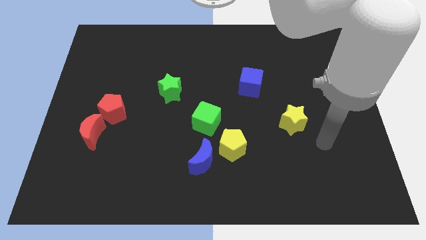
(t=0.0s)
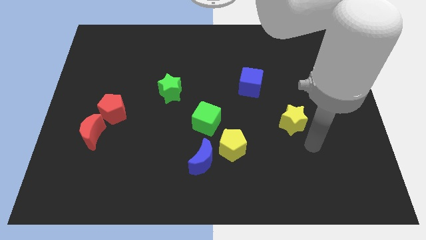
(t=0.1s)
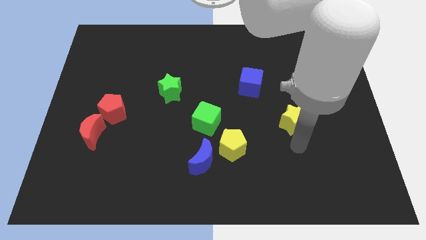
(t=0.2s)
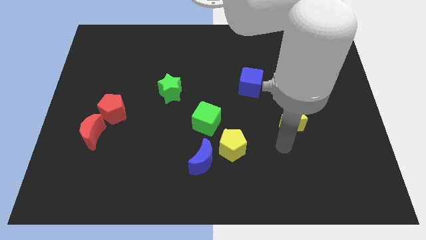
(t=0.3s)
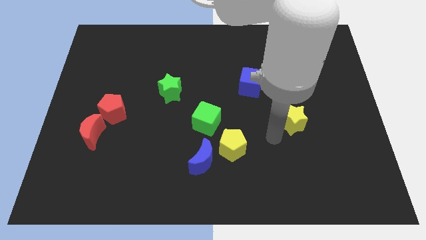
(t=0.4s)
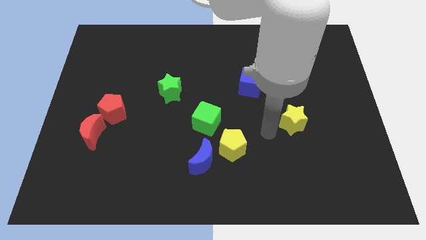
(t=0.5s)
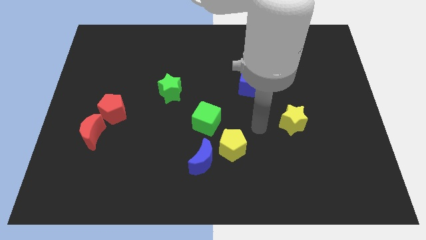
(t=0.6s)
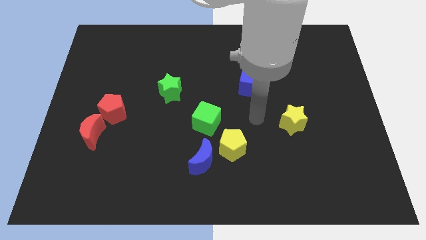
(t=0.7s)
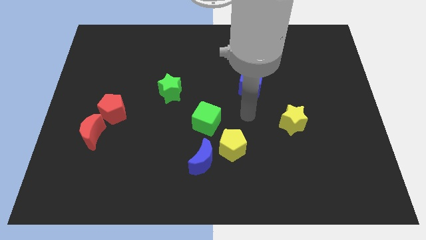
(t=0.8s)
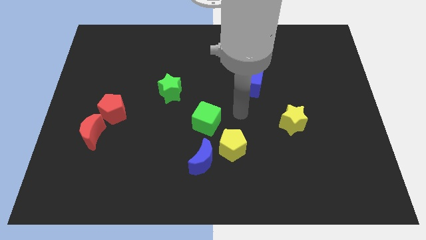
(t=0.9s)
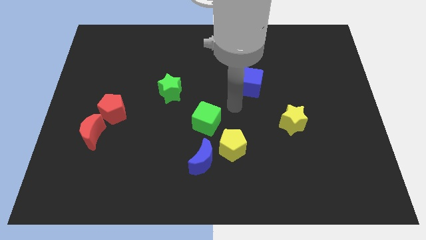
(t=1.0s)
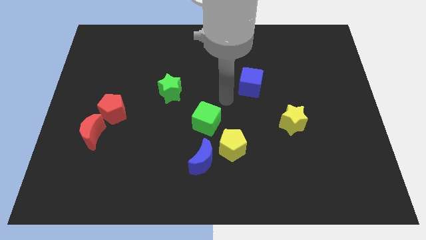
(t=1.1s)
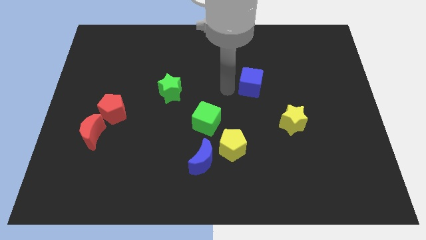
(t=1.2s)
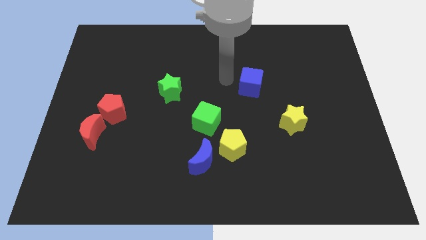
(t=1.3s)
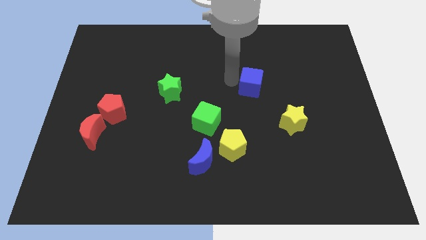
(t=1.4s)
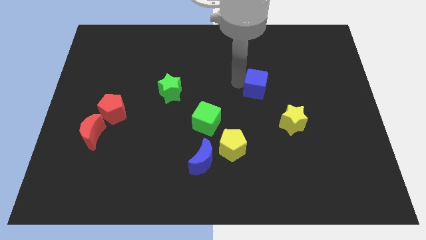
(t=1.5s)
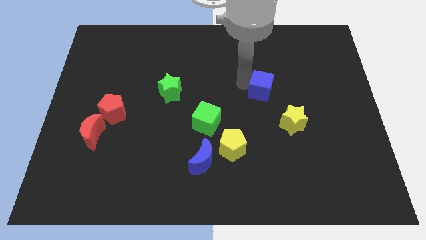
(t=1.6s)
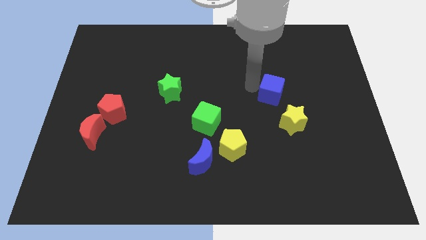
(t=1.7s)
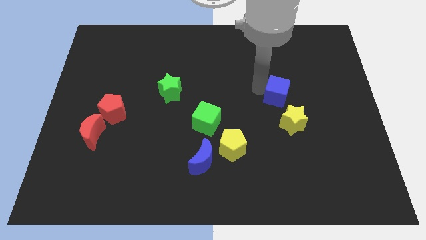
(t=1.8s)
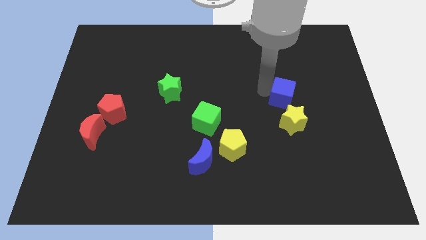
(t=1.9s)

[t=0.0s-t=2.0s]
move the blue cube down and right diagonally a little bit

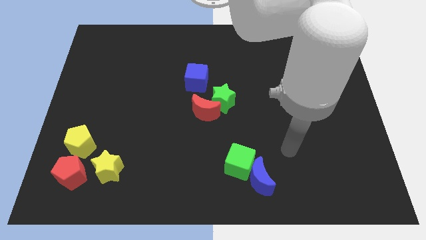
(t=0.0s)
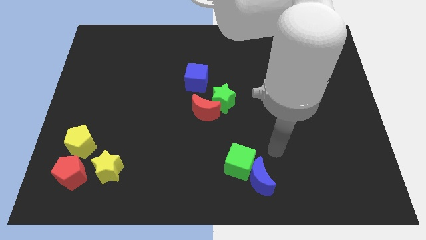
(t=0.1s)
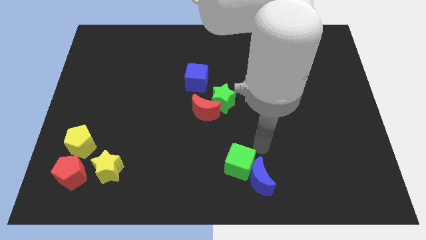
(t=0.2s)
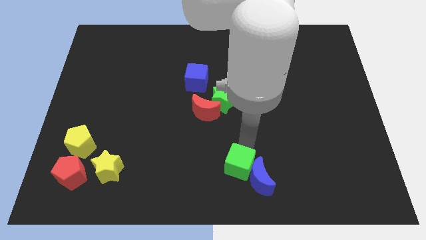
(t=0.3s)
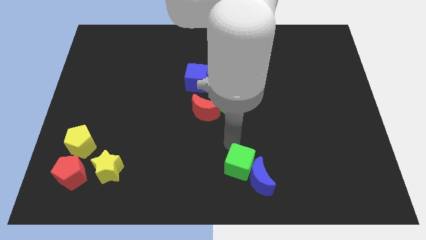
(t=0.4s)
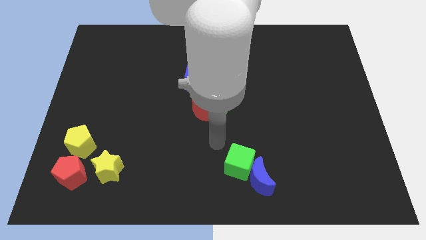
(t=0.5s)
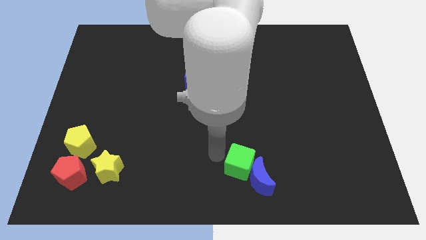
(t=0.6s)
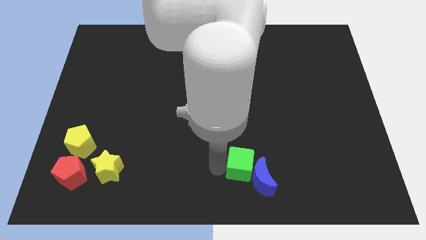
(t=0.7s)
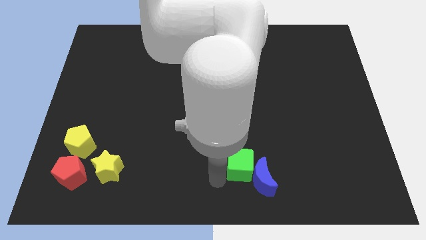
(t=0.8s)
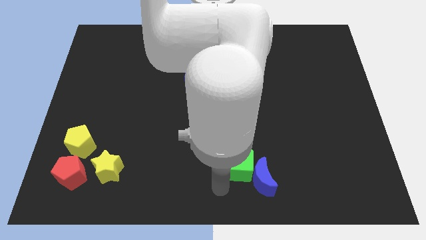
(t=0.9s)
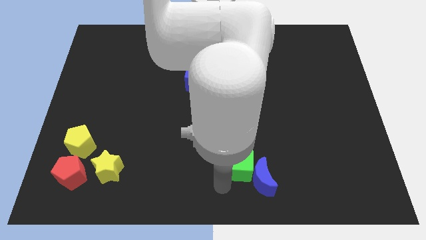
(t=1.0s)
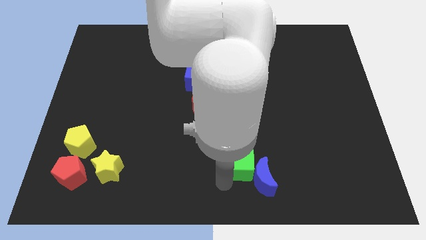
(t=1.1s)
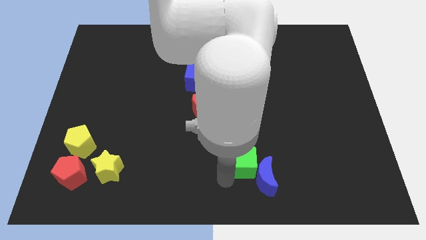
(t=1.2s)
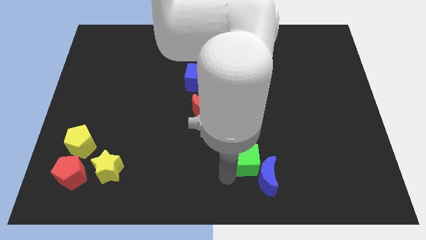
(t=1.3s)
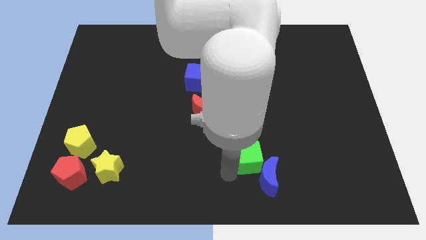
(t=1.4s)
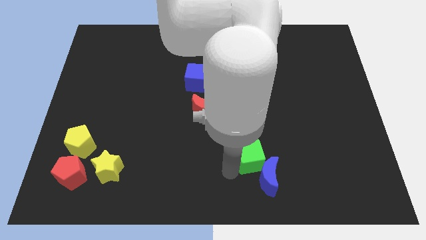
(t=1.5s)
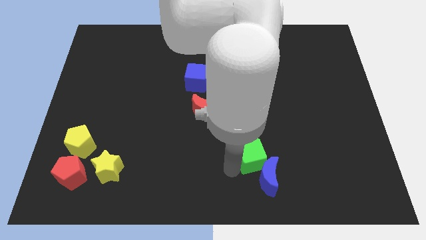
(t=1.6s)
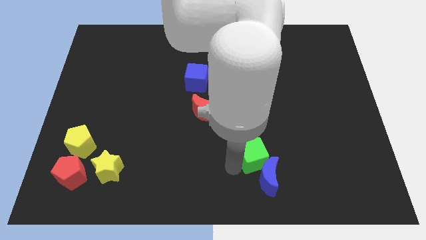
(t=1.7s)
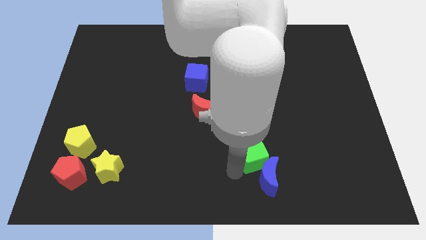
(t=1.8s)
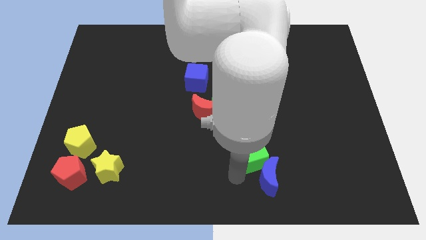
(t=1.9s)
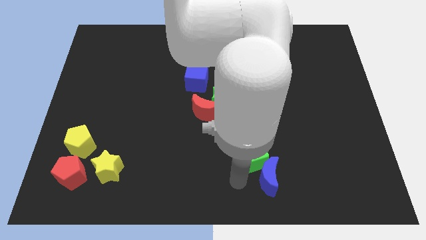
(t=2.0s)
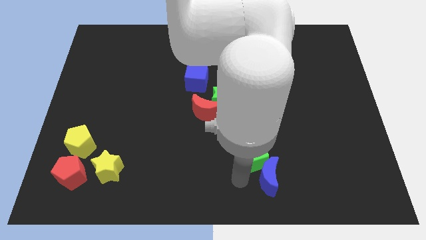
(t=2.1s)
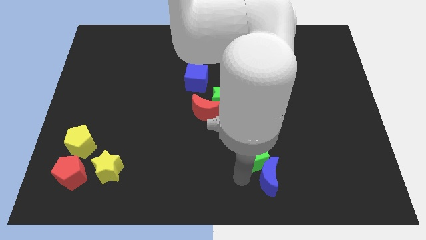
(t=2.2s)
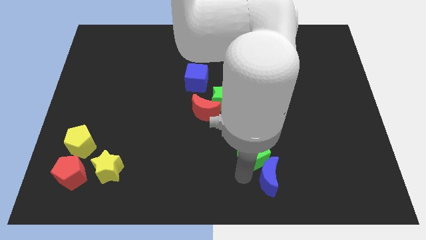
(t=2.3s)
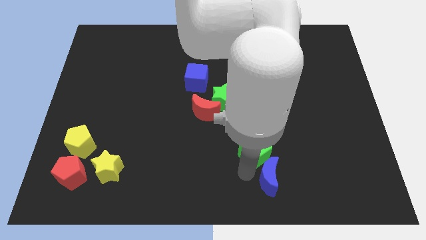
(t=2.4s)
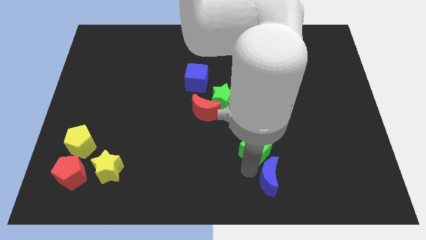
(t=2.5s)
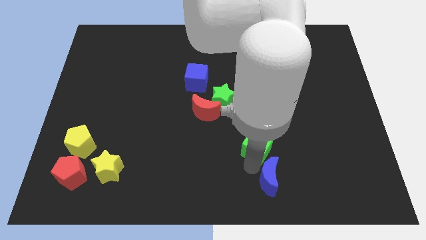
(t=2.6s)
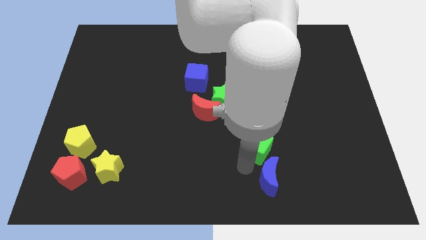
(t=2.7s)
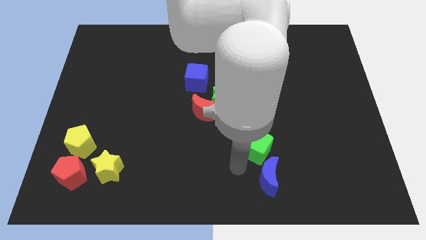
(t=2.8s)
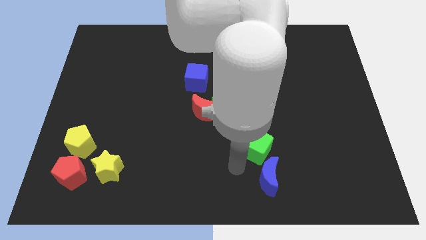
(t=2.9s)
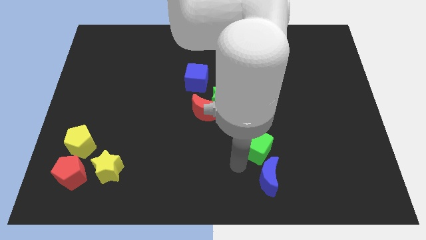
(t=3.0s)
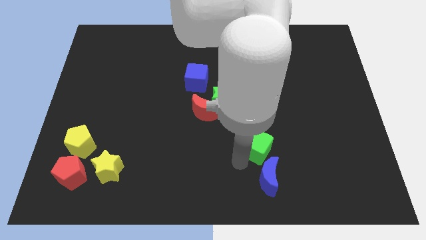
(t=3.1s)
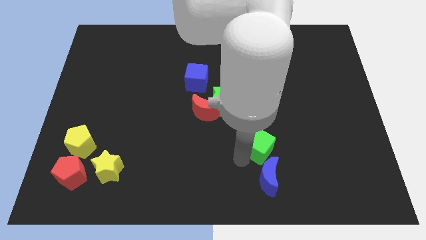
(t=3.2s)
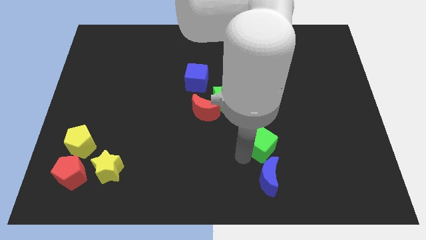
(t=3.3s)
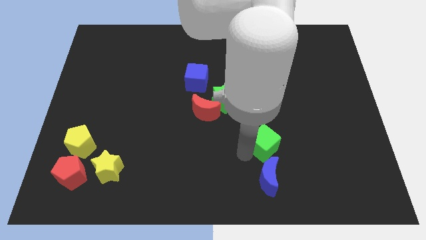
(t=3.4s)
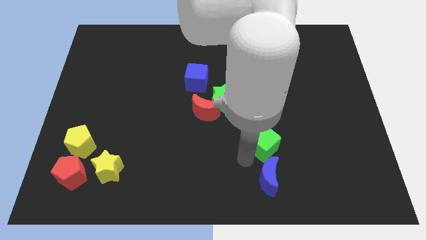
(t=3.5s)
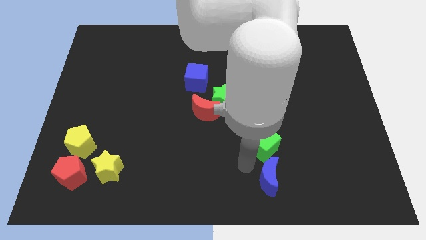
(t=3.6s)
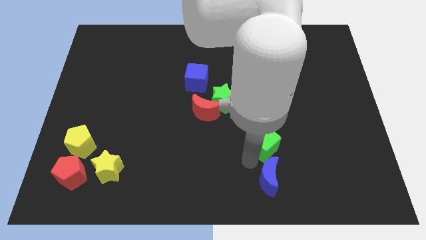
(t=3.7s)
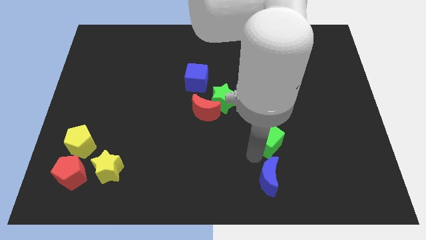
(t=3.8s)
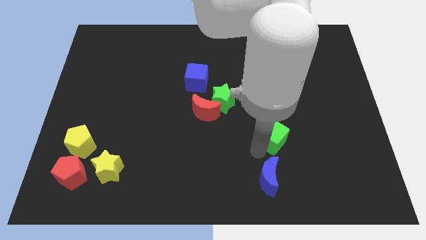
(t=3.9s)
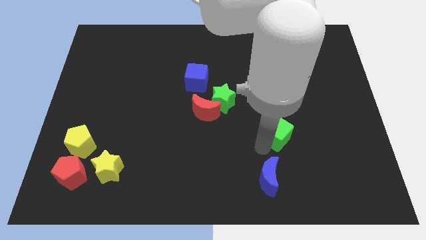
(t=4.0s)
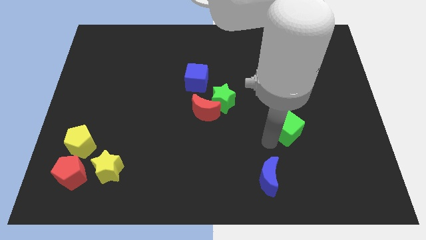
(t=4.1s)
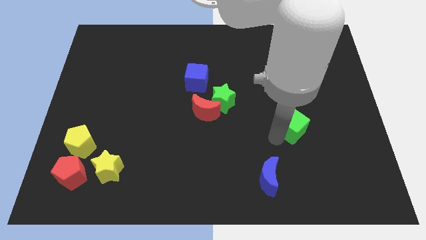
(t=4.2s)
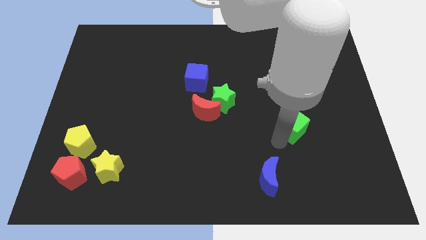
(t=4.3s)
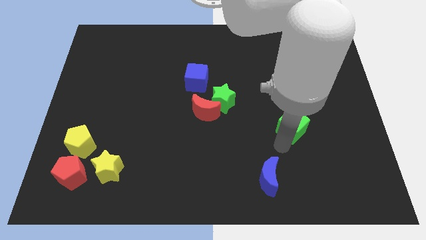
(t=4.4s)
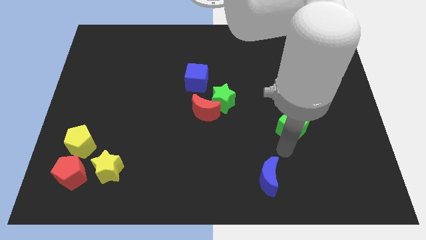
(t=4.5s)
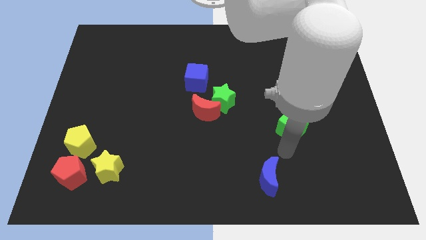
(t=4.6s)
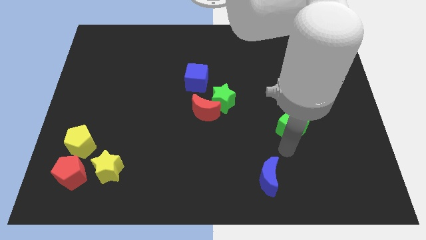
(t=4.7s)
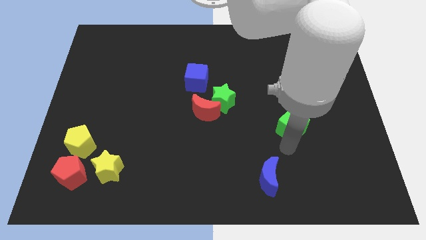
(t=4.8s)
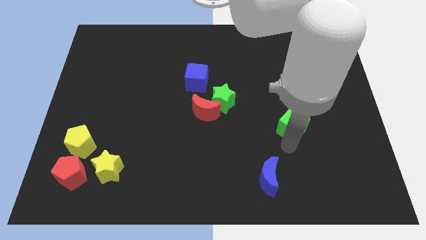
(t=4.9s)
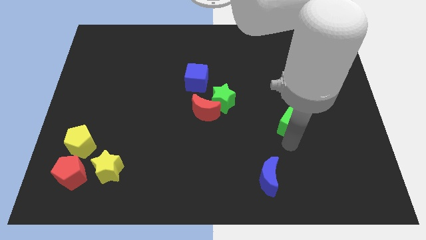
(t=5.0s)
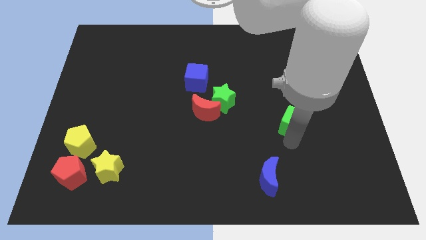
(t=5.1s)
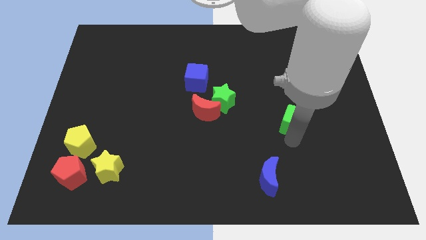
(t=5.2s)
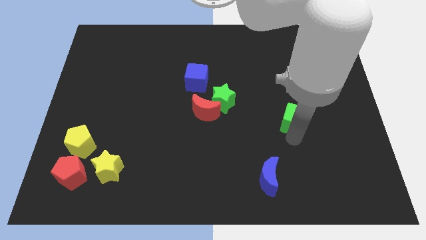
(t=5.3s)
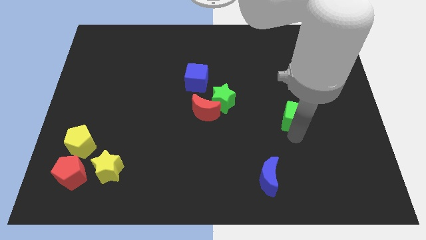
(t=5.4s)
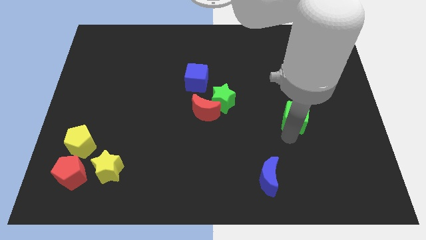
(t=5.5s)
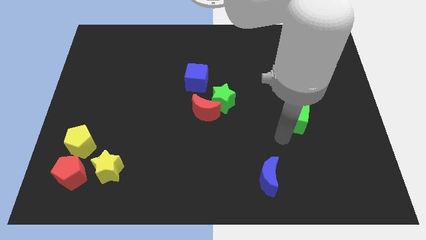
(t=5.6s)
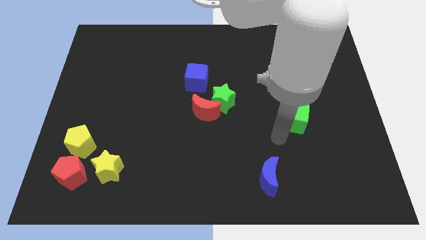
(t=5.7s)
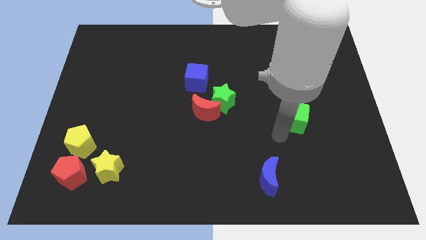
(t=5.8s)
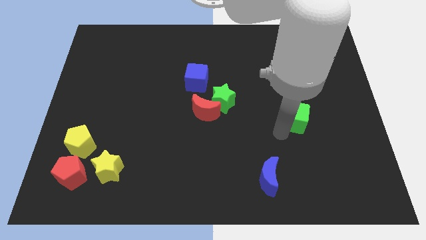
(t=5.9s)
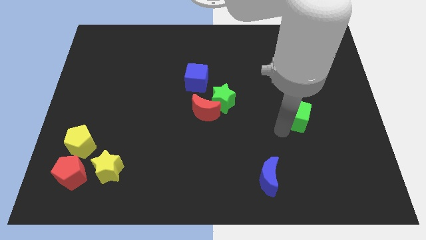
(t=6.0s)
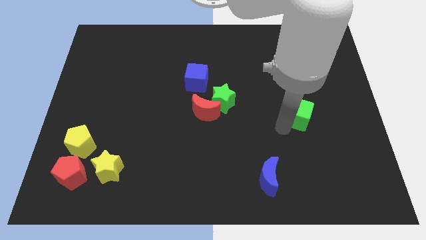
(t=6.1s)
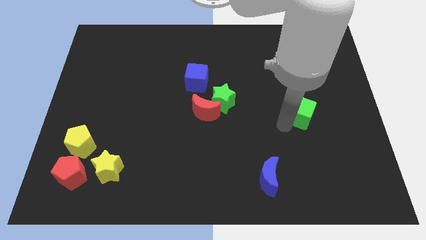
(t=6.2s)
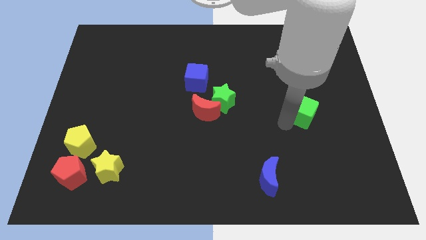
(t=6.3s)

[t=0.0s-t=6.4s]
slide the green cube diagonally up and to the right
